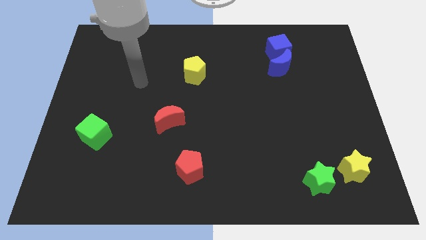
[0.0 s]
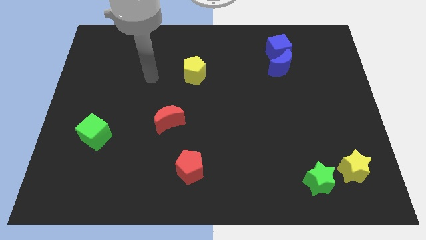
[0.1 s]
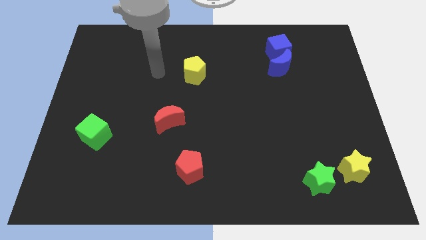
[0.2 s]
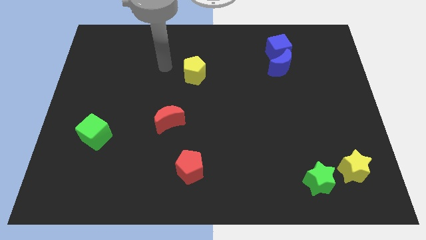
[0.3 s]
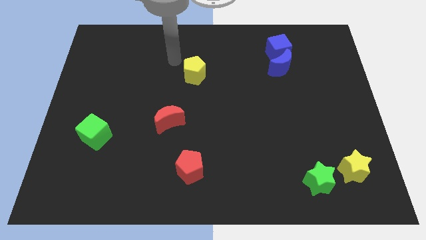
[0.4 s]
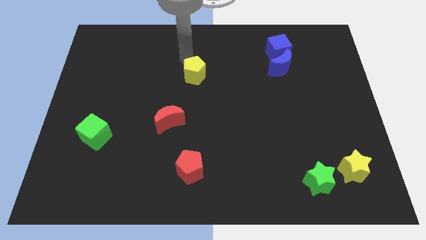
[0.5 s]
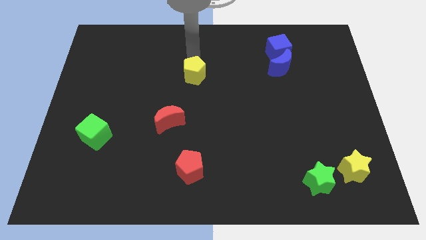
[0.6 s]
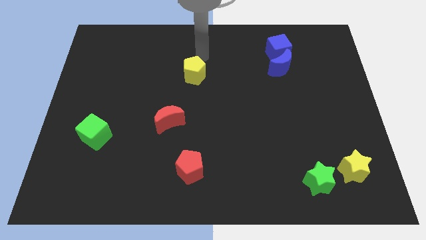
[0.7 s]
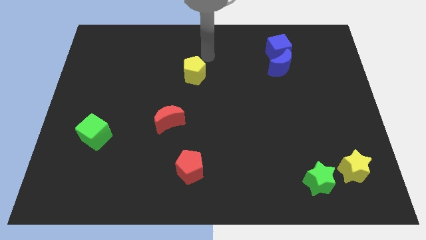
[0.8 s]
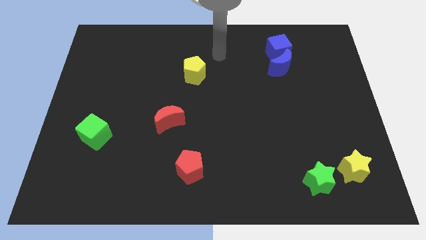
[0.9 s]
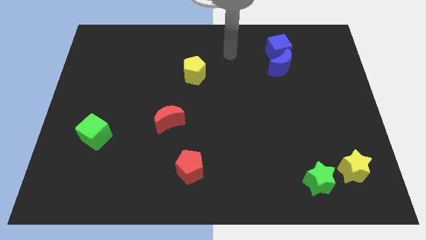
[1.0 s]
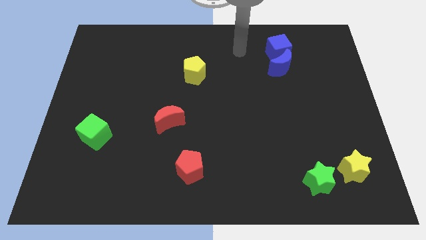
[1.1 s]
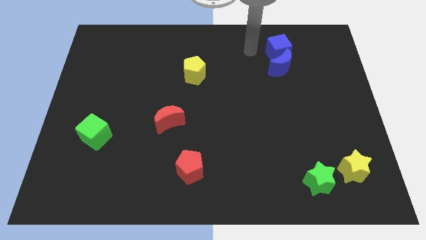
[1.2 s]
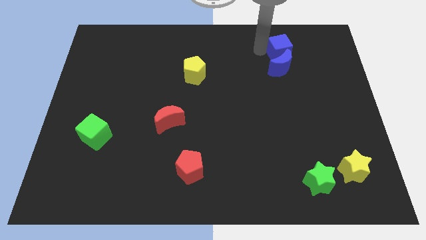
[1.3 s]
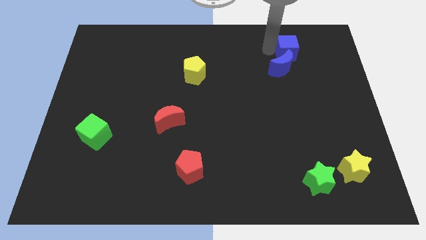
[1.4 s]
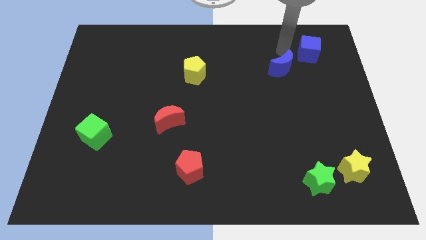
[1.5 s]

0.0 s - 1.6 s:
move the blue moon away from the blue cube

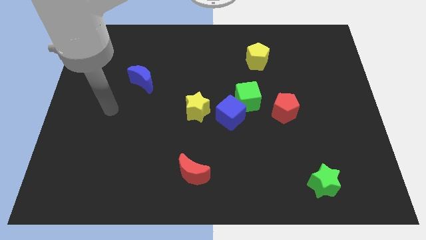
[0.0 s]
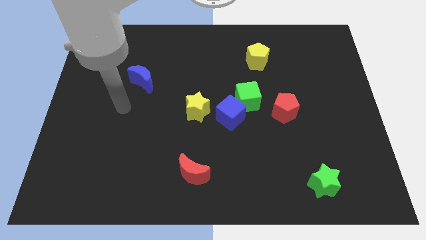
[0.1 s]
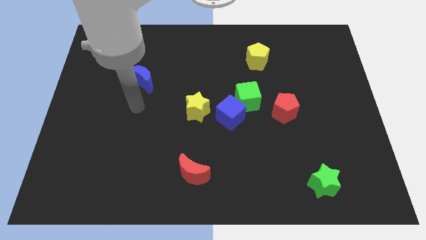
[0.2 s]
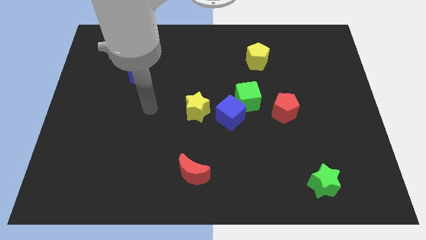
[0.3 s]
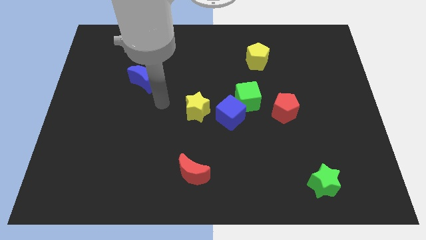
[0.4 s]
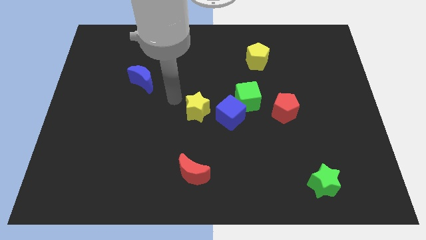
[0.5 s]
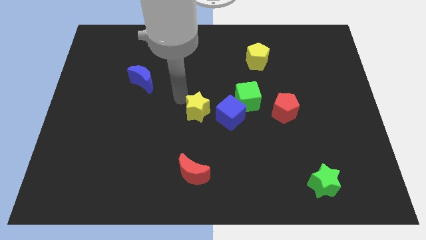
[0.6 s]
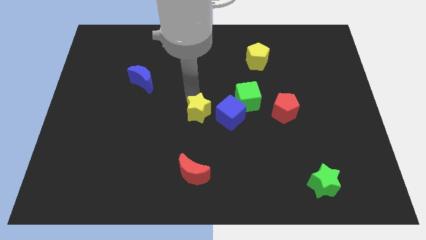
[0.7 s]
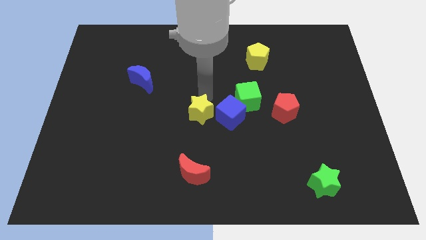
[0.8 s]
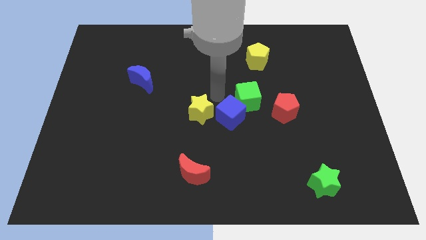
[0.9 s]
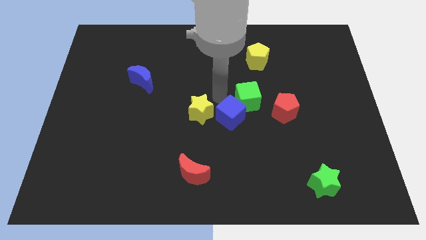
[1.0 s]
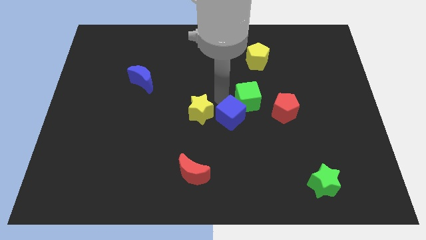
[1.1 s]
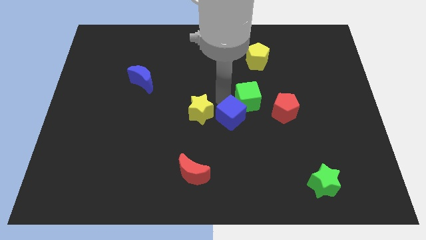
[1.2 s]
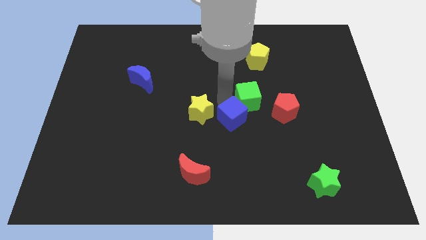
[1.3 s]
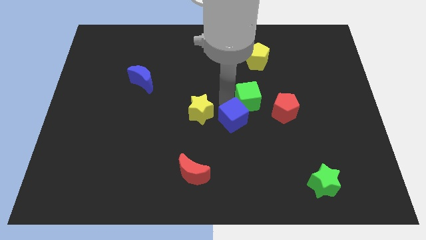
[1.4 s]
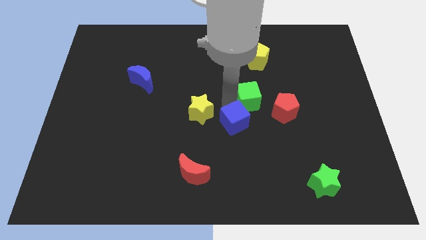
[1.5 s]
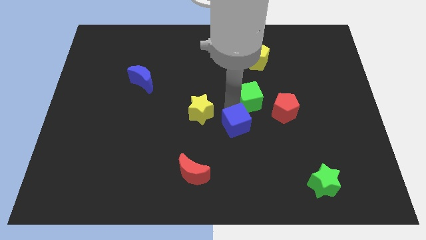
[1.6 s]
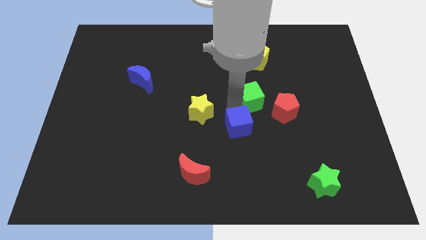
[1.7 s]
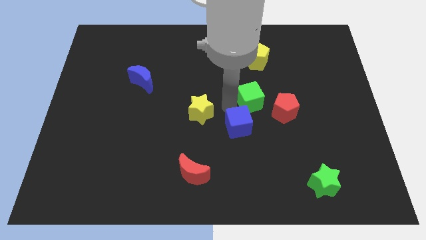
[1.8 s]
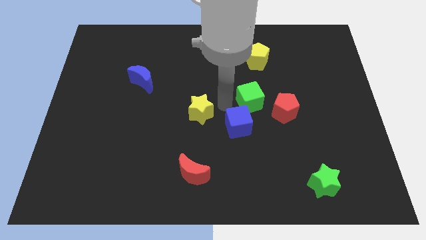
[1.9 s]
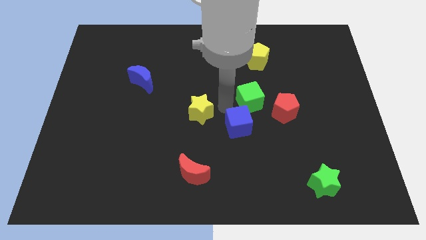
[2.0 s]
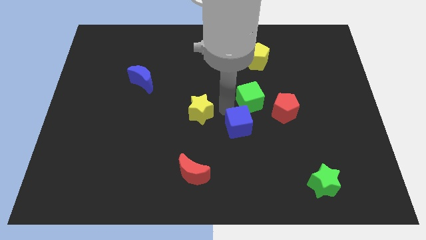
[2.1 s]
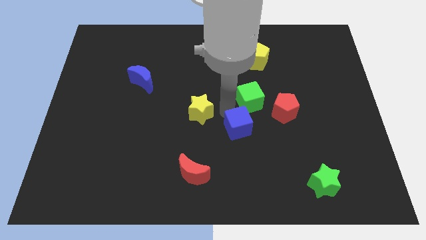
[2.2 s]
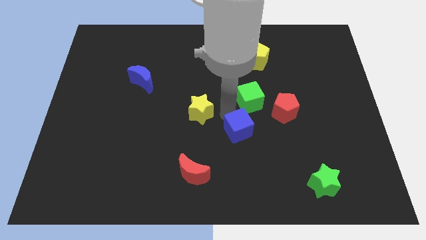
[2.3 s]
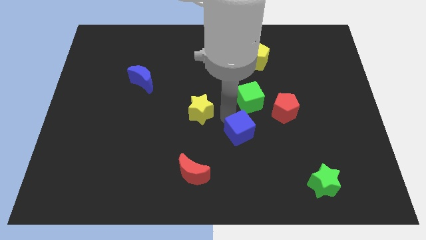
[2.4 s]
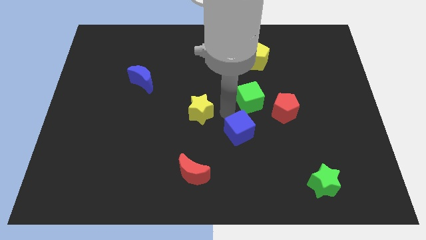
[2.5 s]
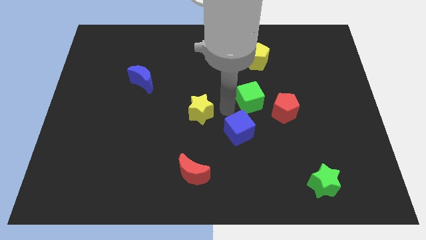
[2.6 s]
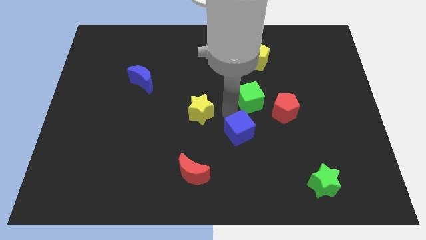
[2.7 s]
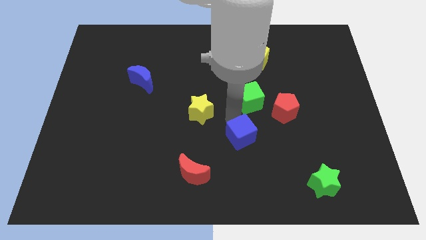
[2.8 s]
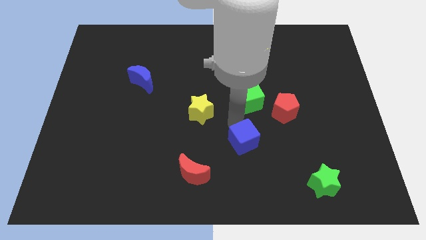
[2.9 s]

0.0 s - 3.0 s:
move the blue cube away from the green cube and yellow star

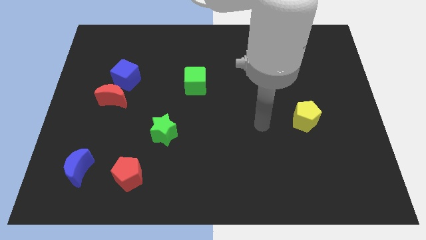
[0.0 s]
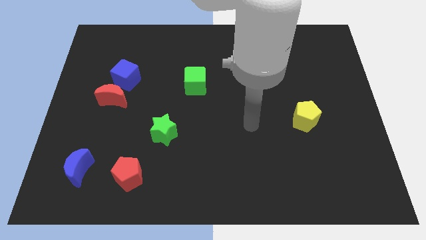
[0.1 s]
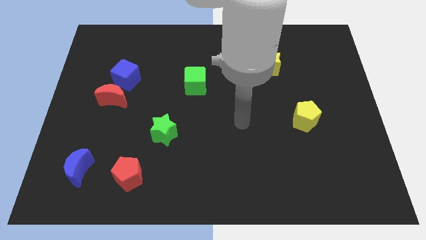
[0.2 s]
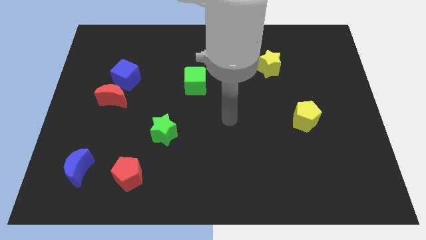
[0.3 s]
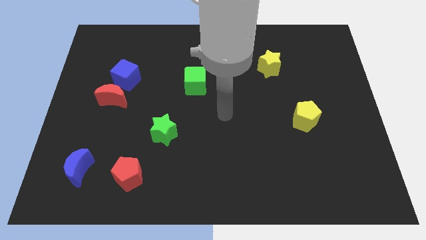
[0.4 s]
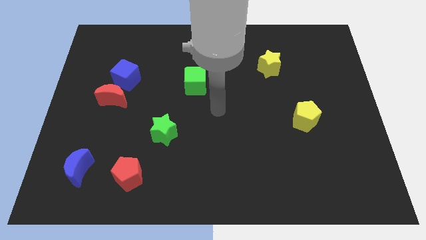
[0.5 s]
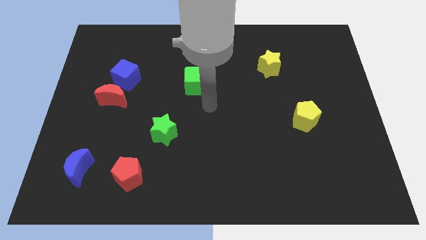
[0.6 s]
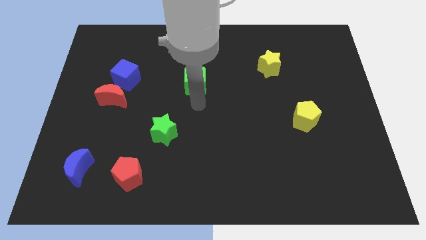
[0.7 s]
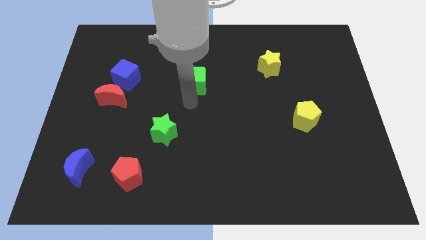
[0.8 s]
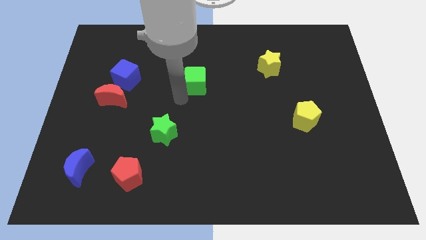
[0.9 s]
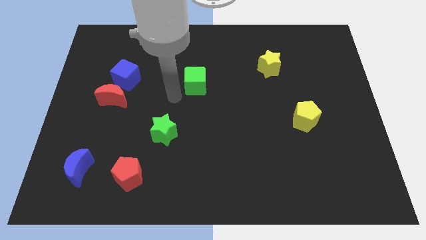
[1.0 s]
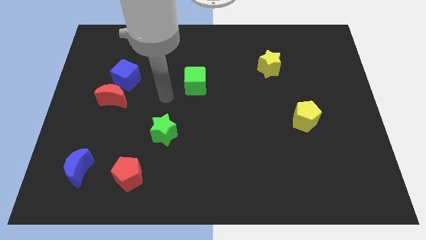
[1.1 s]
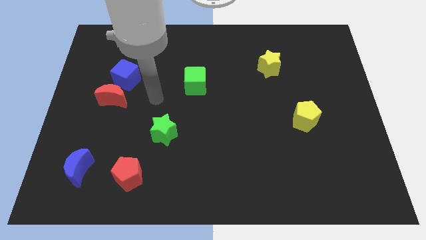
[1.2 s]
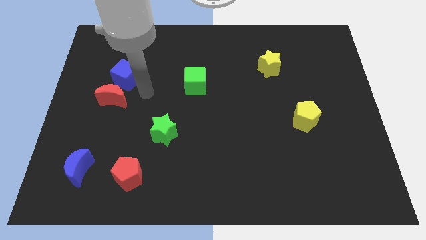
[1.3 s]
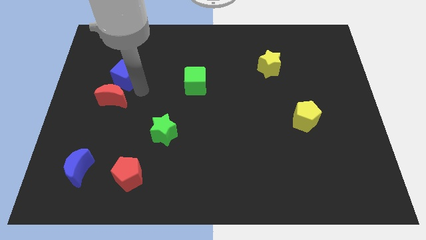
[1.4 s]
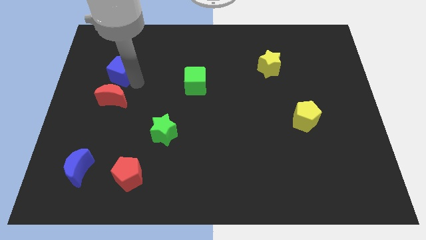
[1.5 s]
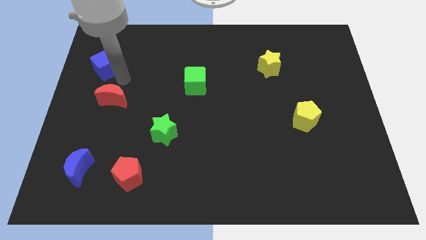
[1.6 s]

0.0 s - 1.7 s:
separate the red moon from the blue cube

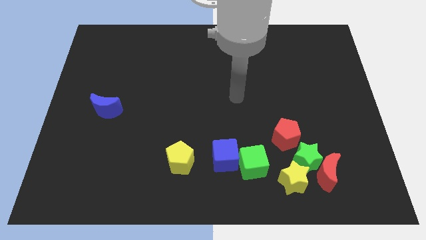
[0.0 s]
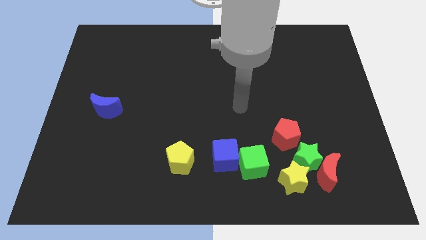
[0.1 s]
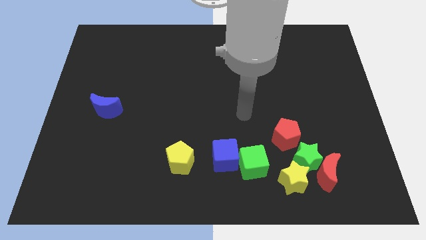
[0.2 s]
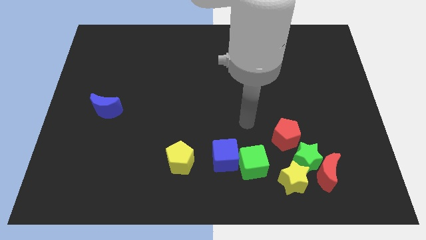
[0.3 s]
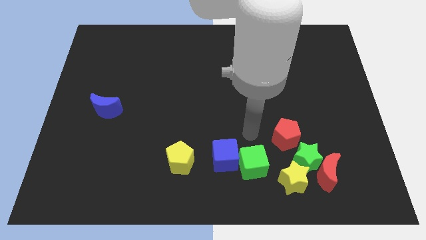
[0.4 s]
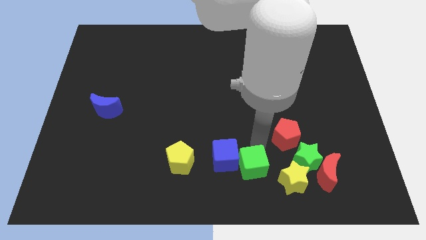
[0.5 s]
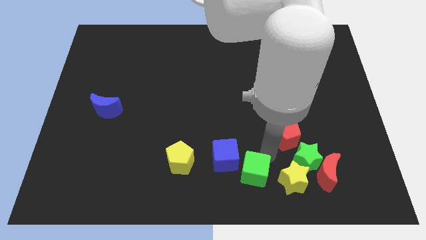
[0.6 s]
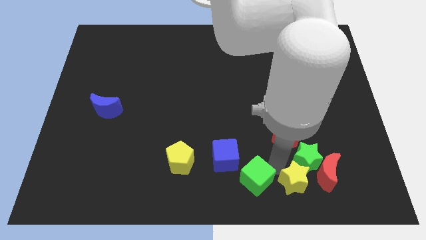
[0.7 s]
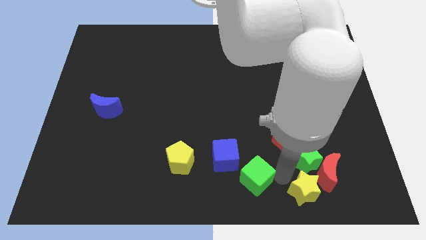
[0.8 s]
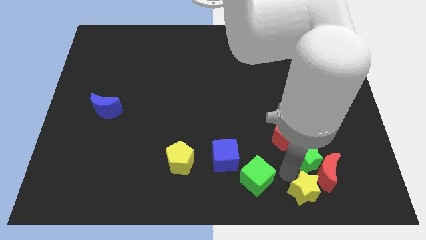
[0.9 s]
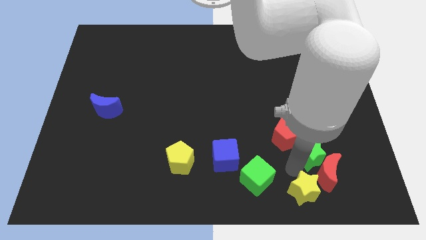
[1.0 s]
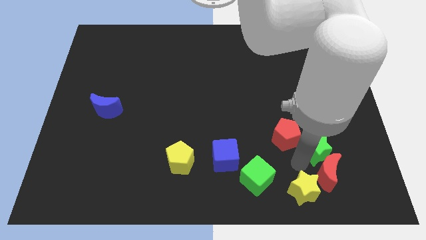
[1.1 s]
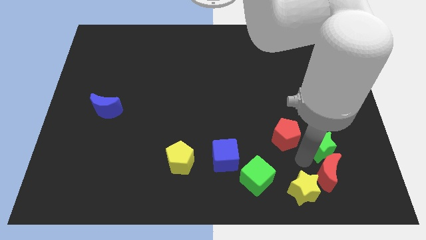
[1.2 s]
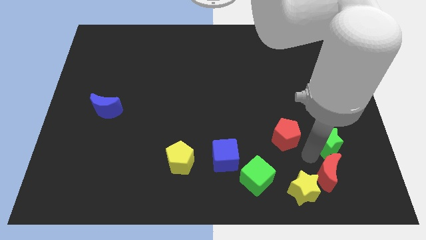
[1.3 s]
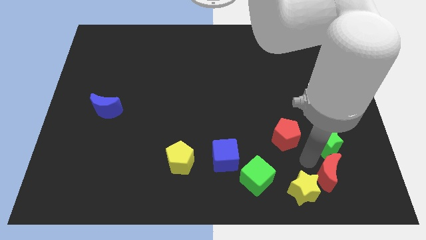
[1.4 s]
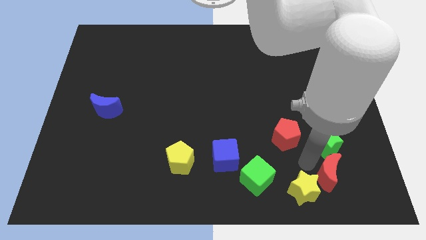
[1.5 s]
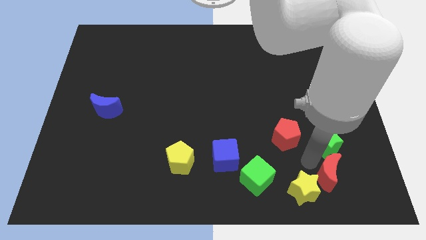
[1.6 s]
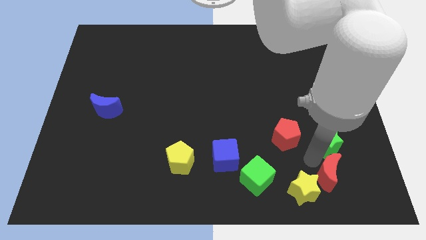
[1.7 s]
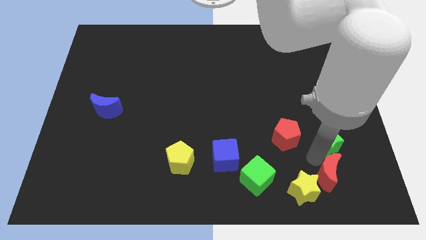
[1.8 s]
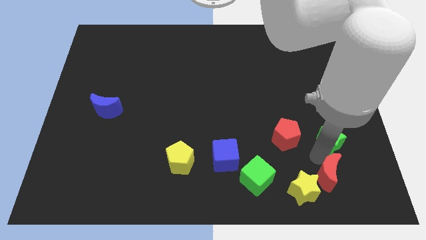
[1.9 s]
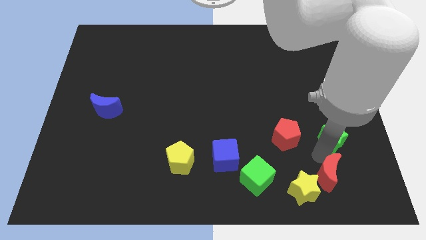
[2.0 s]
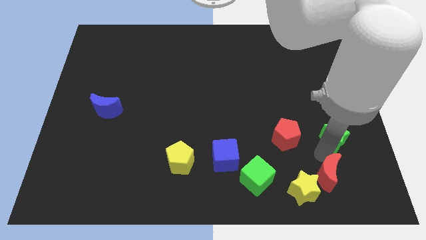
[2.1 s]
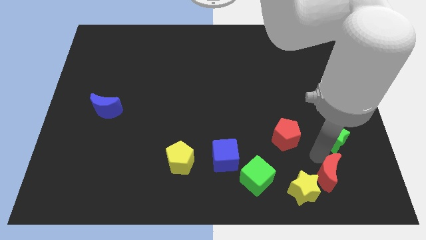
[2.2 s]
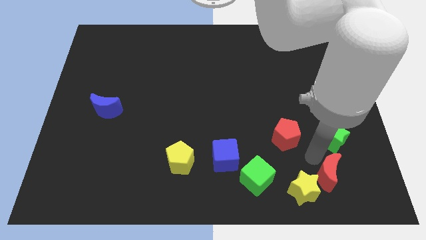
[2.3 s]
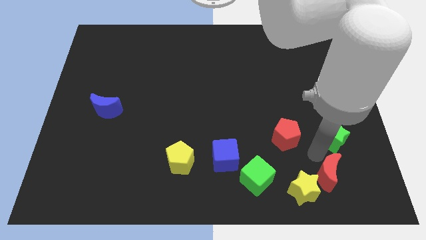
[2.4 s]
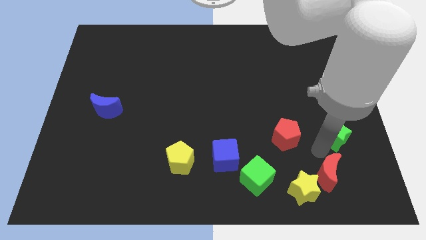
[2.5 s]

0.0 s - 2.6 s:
pull the green star apart from the clump

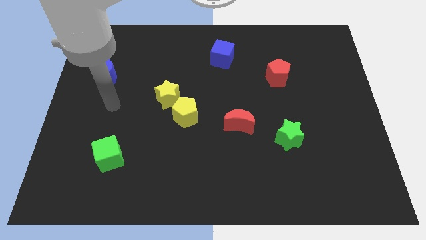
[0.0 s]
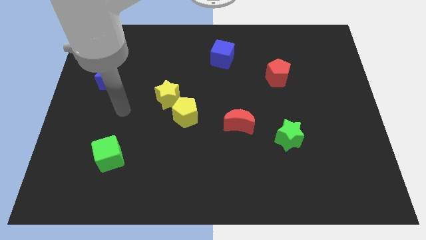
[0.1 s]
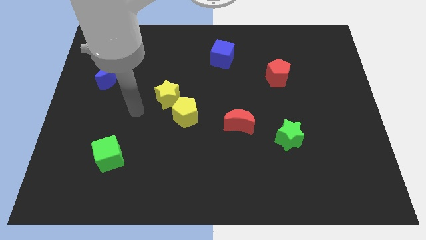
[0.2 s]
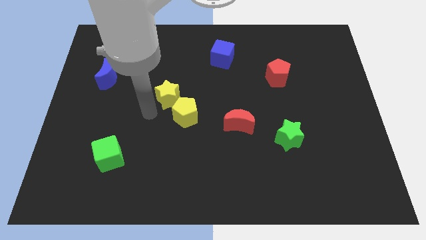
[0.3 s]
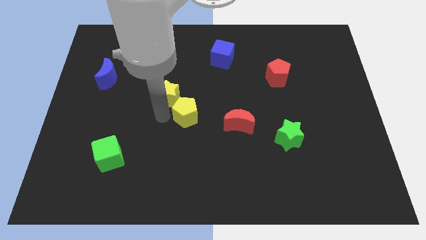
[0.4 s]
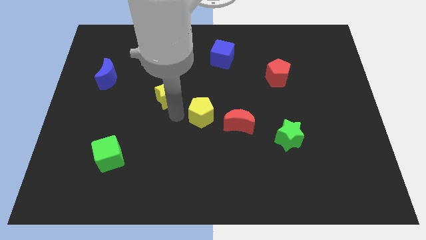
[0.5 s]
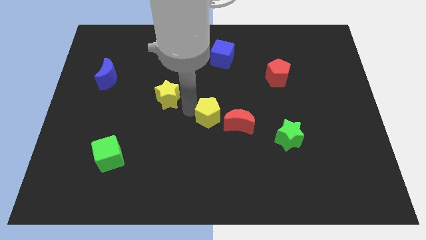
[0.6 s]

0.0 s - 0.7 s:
move the yellow star away from the yellow pentagon
